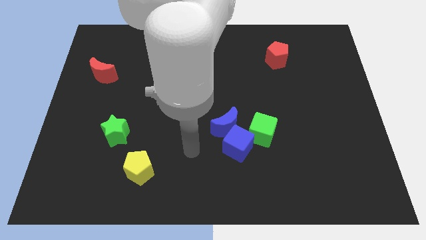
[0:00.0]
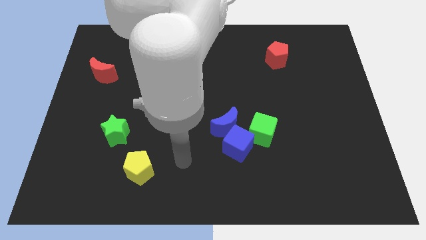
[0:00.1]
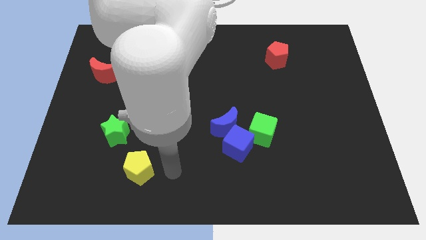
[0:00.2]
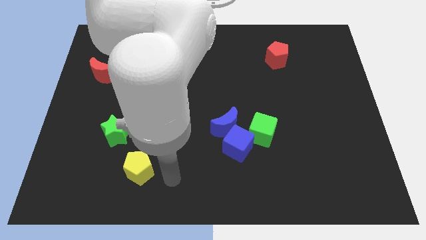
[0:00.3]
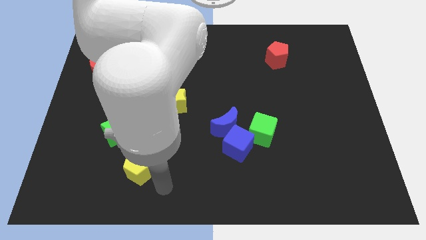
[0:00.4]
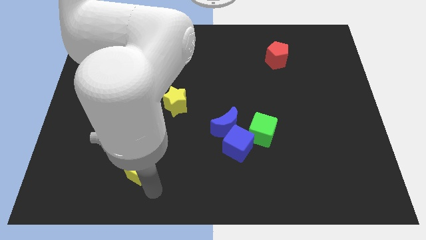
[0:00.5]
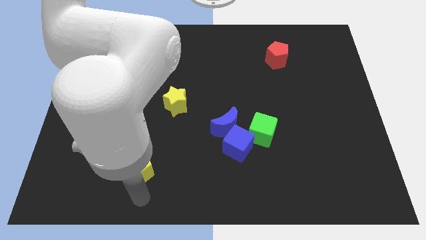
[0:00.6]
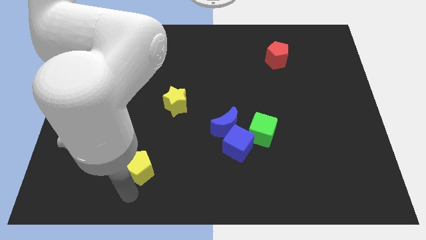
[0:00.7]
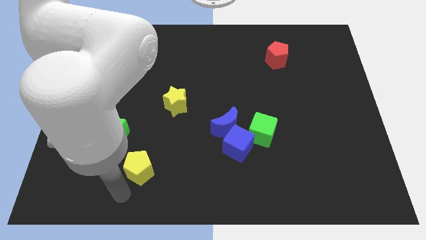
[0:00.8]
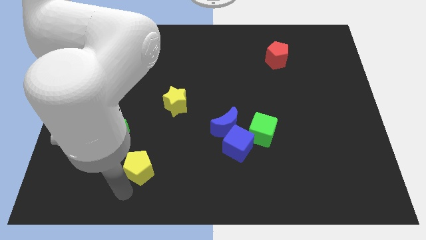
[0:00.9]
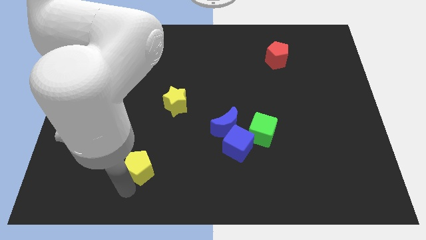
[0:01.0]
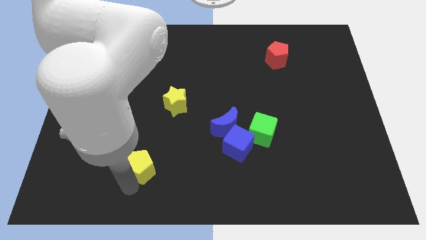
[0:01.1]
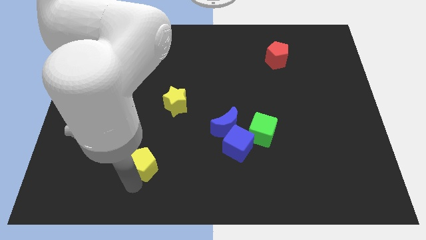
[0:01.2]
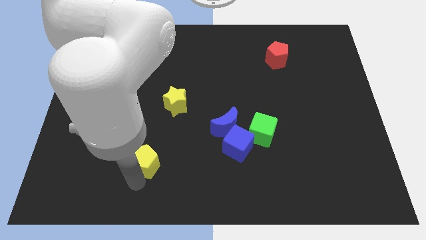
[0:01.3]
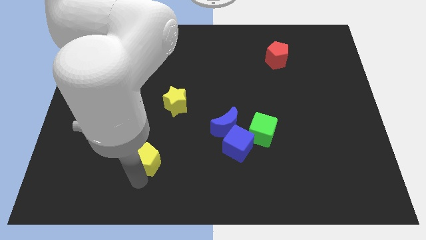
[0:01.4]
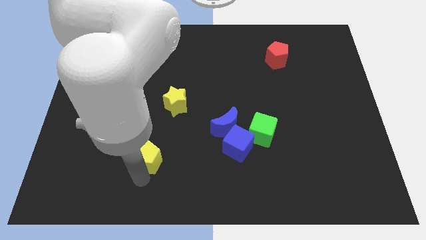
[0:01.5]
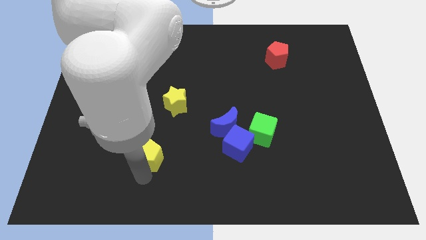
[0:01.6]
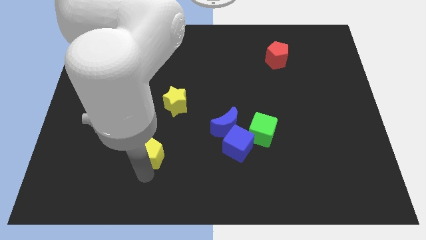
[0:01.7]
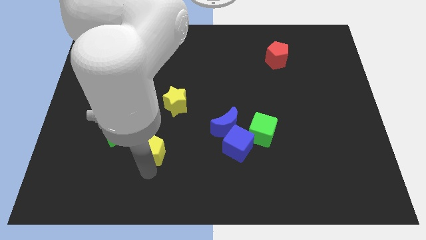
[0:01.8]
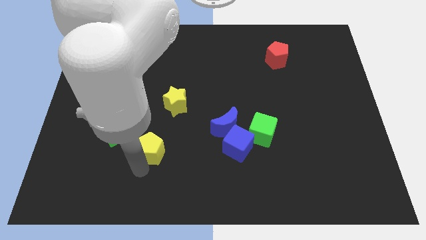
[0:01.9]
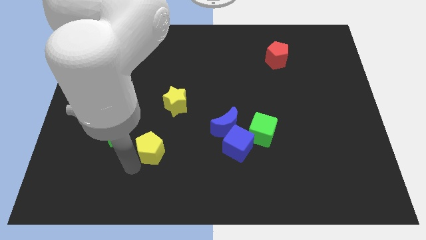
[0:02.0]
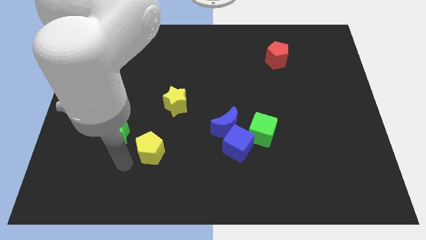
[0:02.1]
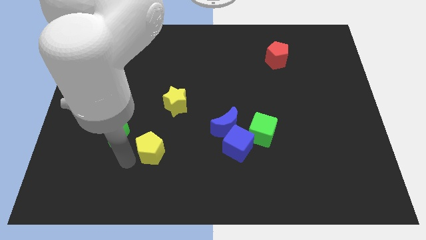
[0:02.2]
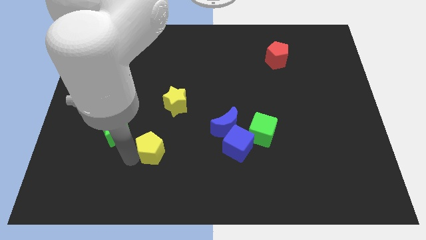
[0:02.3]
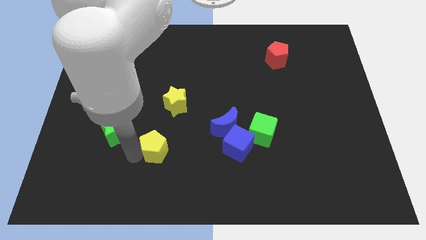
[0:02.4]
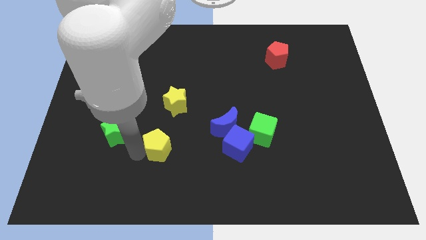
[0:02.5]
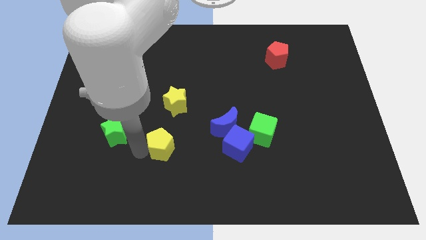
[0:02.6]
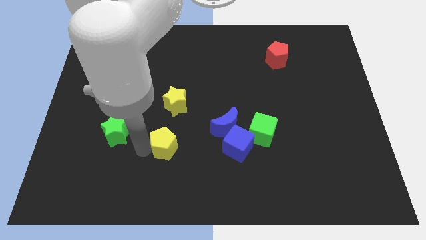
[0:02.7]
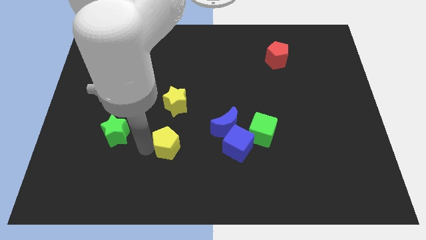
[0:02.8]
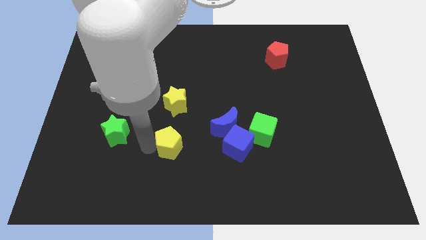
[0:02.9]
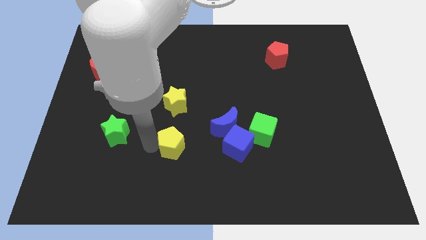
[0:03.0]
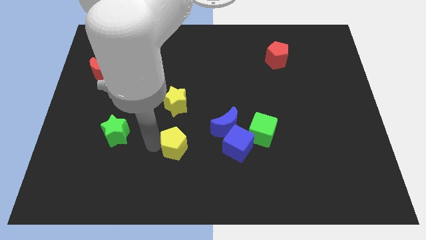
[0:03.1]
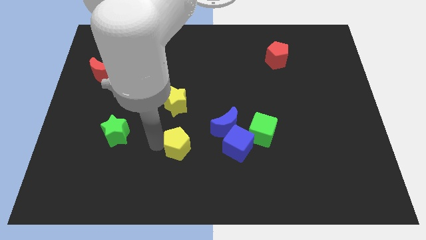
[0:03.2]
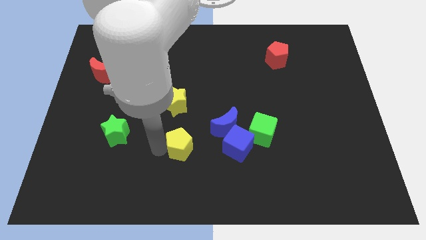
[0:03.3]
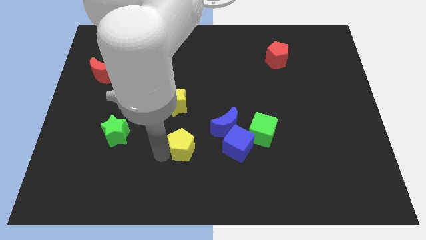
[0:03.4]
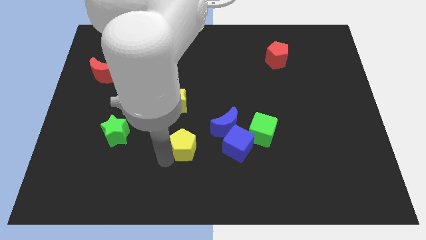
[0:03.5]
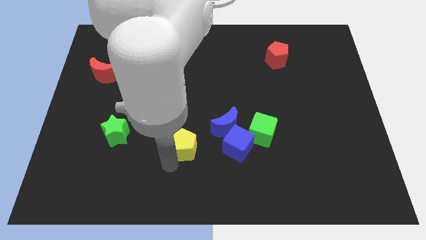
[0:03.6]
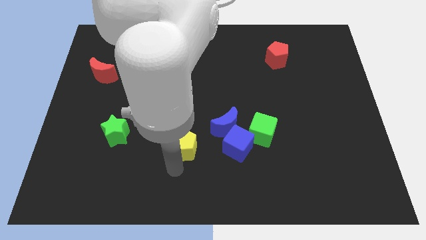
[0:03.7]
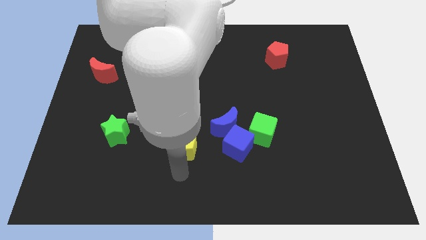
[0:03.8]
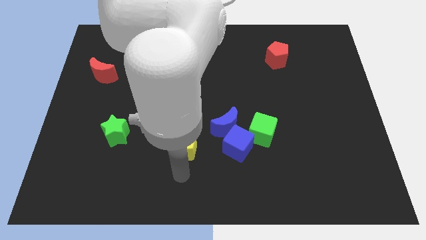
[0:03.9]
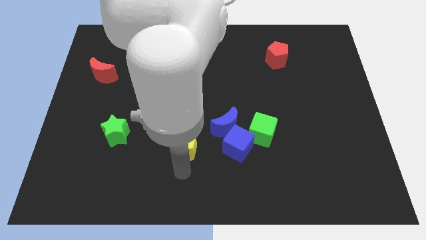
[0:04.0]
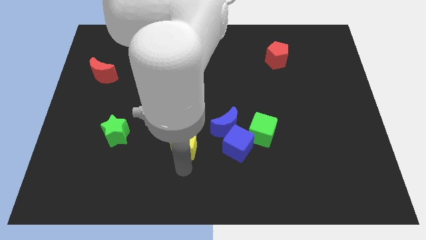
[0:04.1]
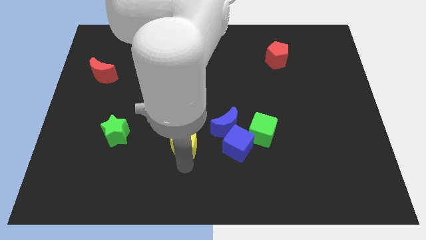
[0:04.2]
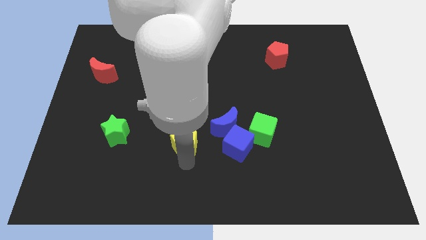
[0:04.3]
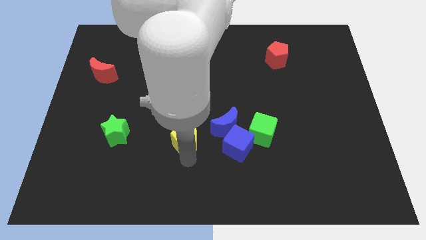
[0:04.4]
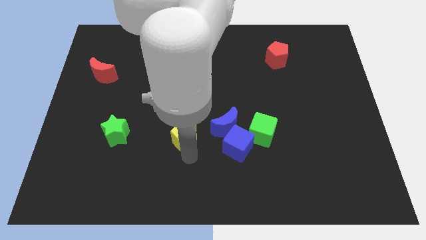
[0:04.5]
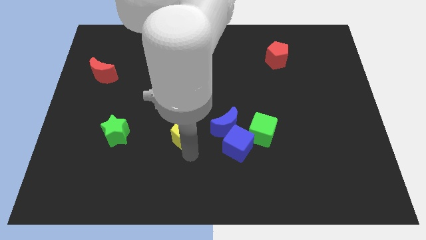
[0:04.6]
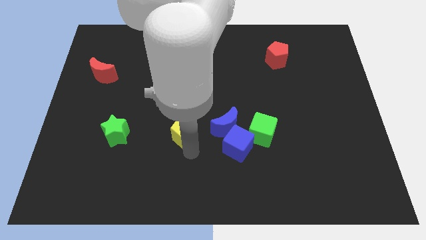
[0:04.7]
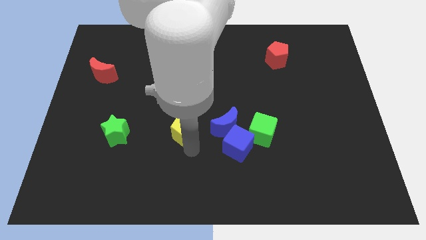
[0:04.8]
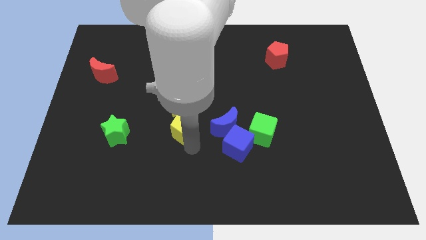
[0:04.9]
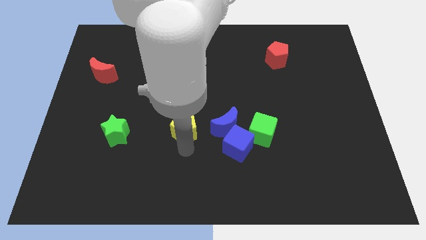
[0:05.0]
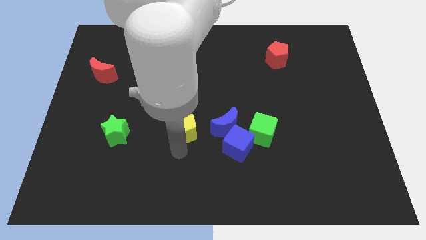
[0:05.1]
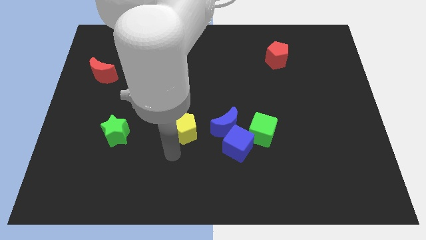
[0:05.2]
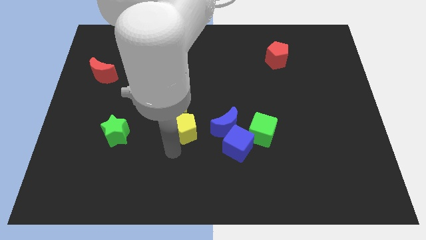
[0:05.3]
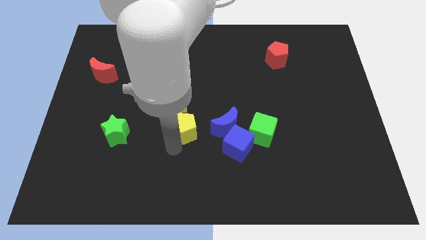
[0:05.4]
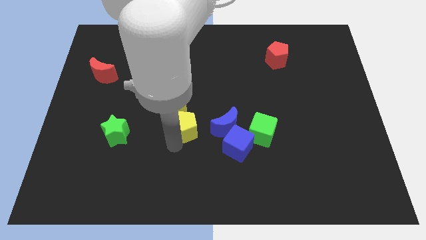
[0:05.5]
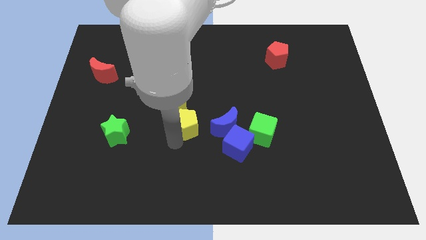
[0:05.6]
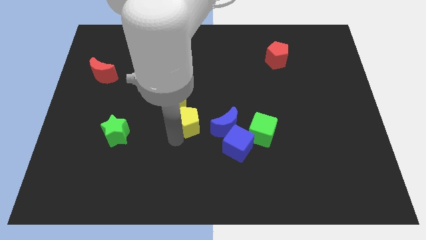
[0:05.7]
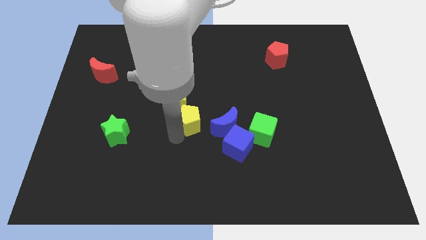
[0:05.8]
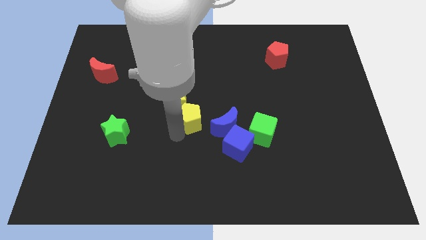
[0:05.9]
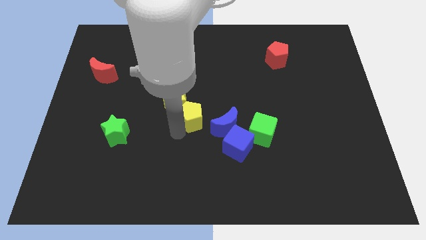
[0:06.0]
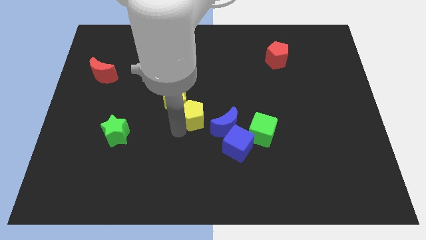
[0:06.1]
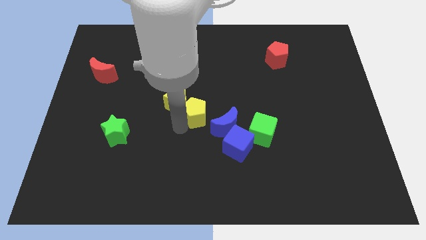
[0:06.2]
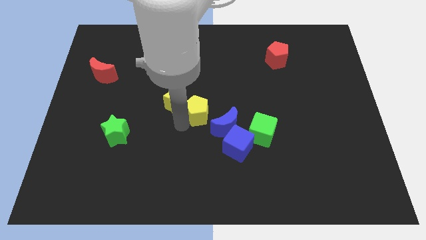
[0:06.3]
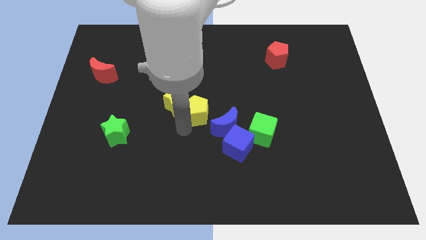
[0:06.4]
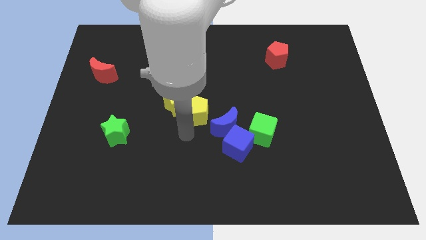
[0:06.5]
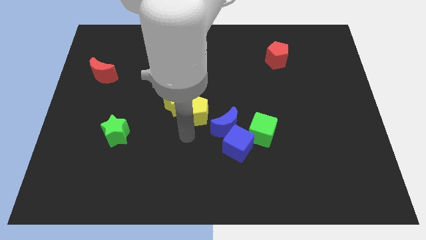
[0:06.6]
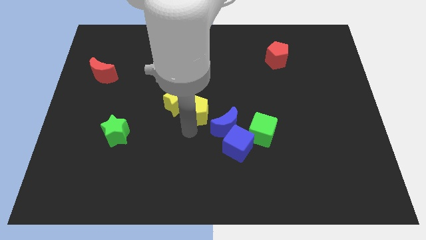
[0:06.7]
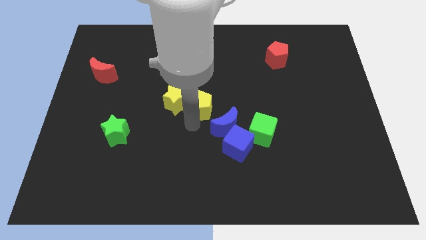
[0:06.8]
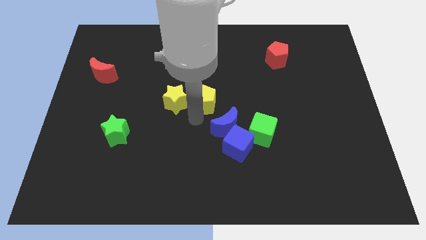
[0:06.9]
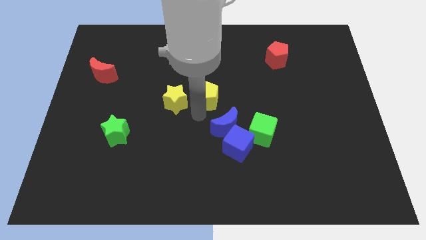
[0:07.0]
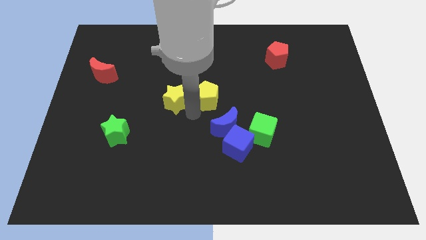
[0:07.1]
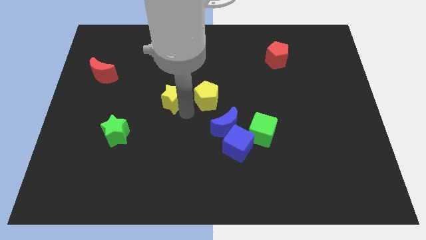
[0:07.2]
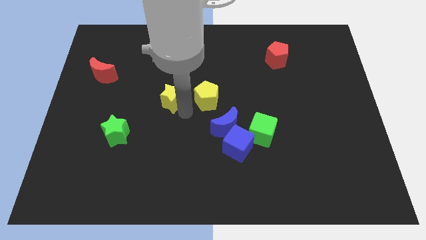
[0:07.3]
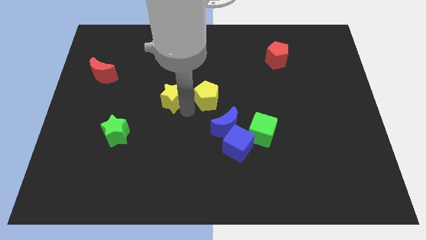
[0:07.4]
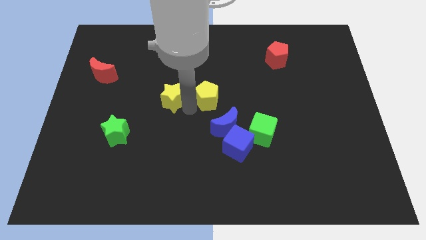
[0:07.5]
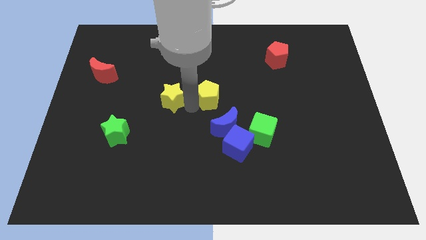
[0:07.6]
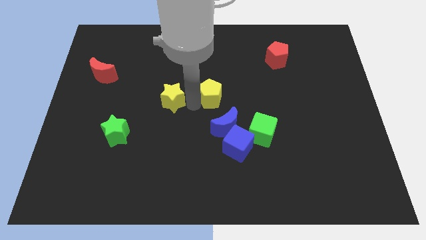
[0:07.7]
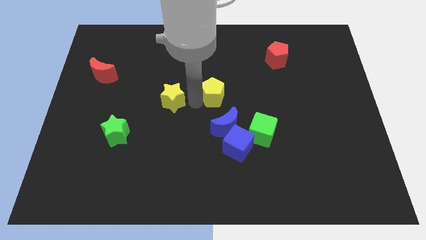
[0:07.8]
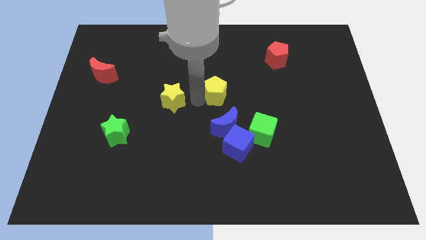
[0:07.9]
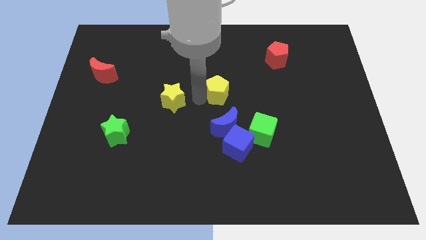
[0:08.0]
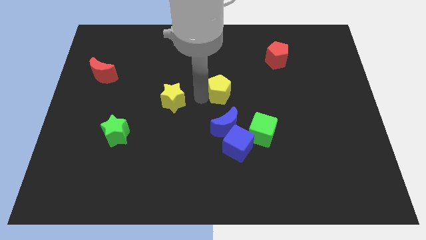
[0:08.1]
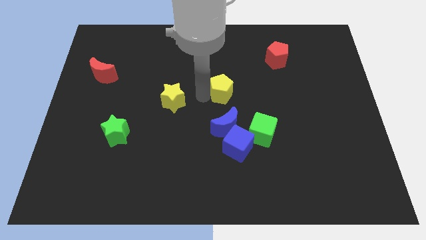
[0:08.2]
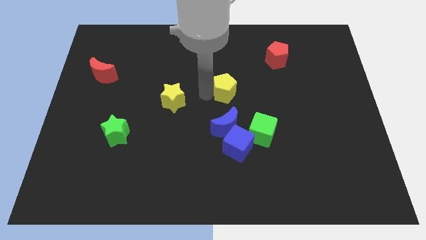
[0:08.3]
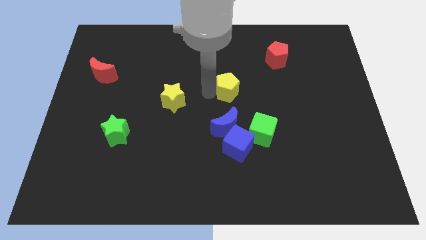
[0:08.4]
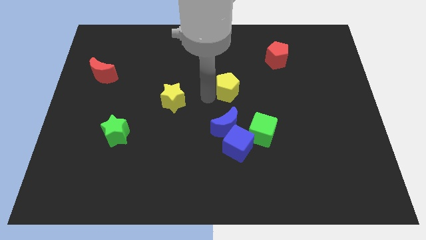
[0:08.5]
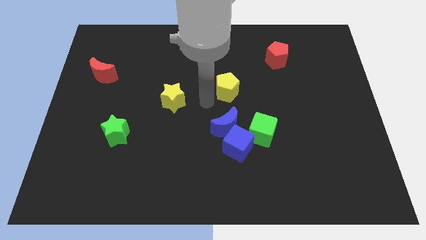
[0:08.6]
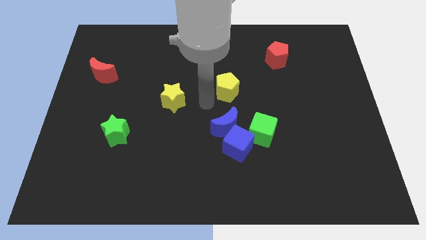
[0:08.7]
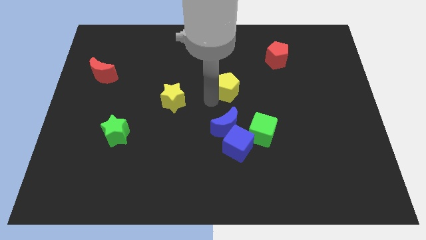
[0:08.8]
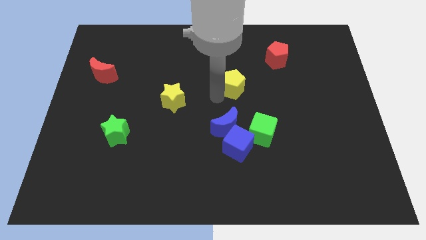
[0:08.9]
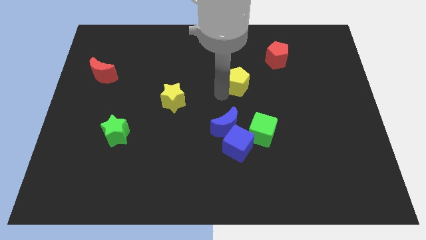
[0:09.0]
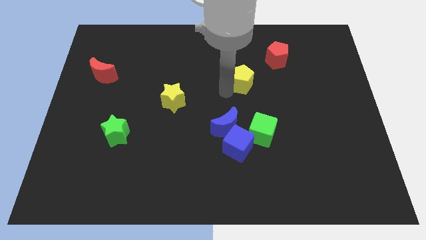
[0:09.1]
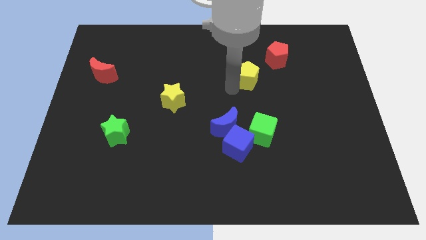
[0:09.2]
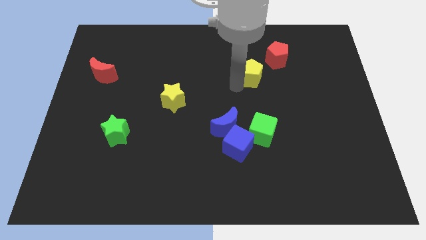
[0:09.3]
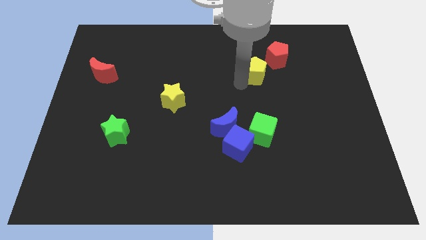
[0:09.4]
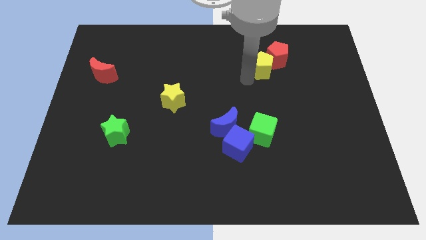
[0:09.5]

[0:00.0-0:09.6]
slide the yellow pentagon to the red pentagon
